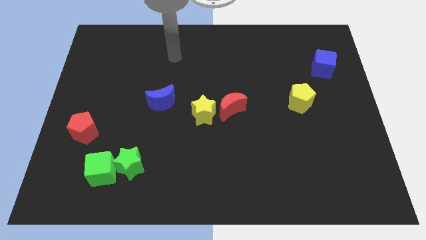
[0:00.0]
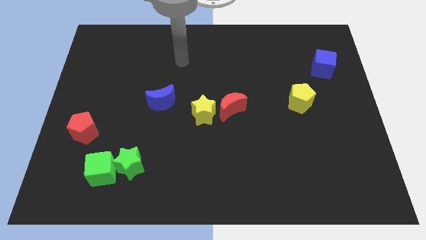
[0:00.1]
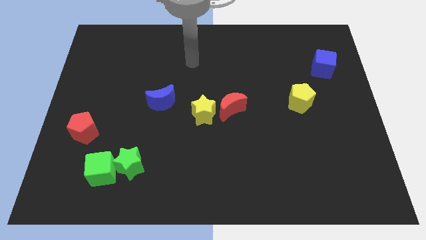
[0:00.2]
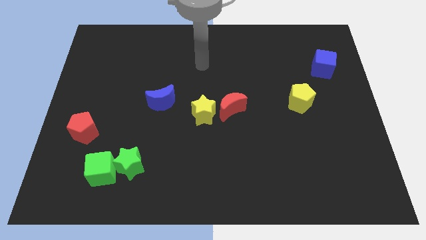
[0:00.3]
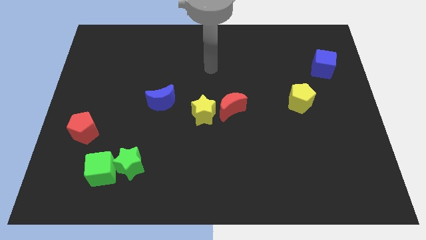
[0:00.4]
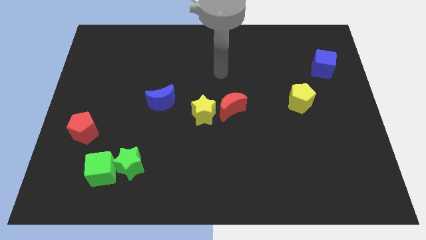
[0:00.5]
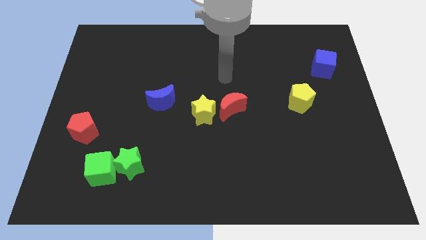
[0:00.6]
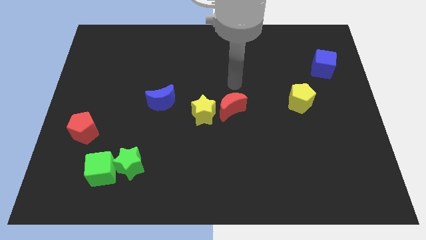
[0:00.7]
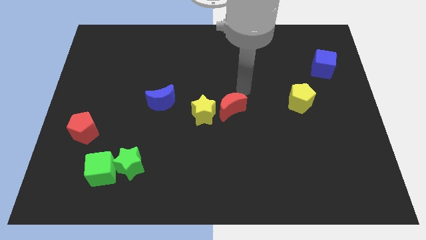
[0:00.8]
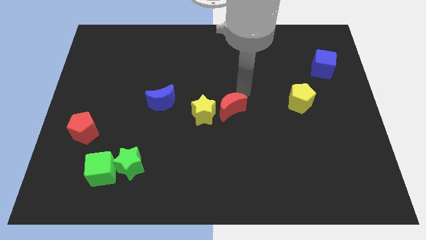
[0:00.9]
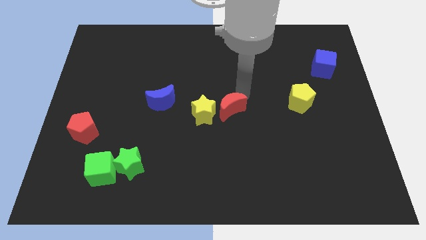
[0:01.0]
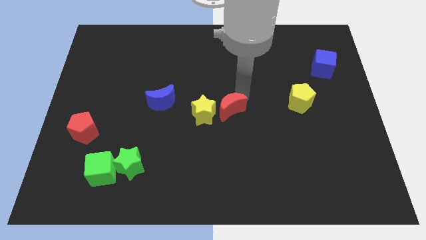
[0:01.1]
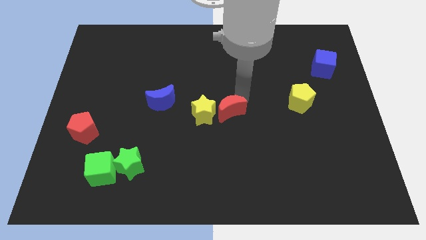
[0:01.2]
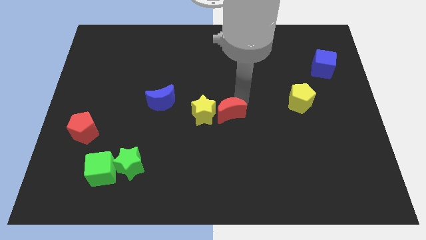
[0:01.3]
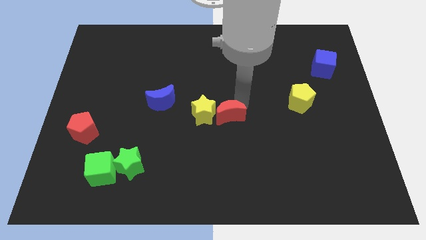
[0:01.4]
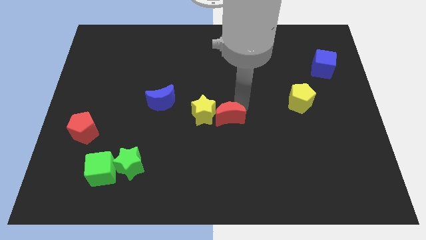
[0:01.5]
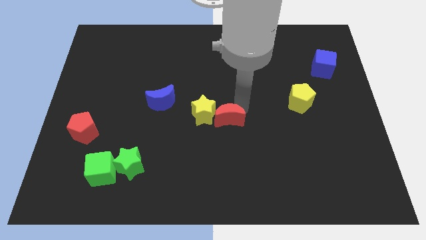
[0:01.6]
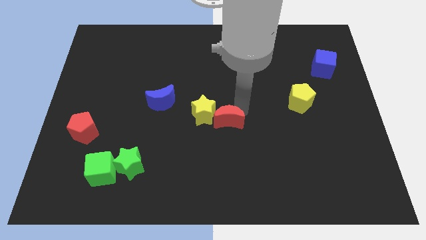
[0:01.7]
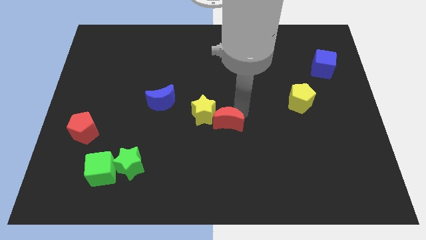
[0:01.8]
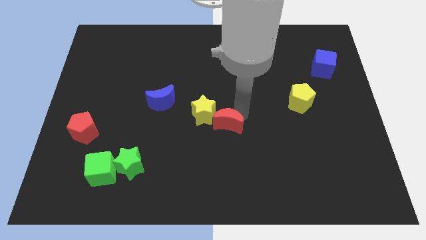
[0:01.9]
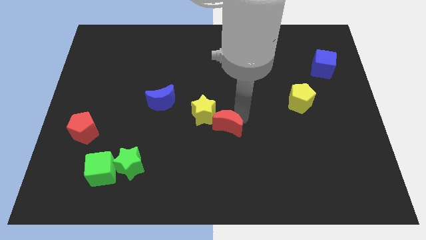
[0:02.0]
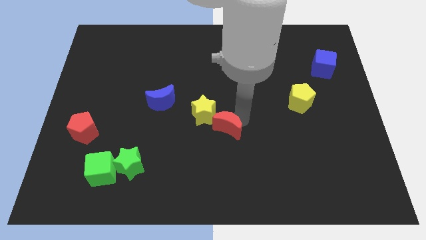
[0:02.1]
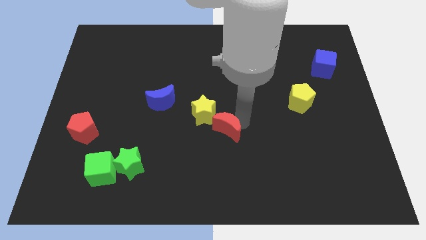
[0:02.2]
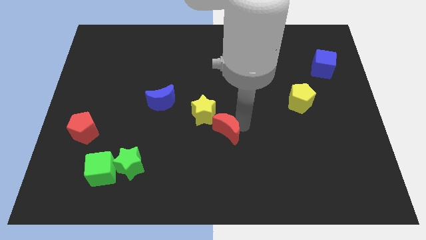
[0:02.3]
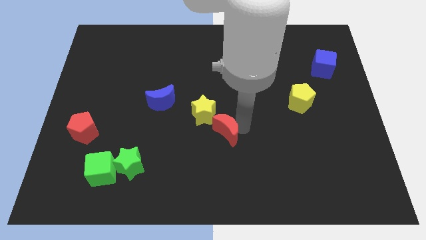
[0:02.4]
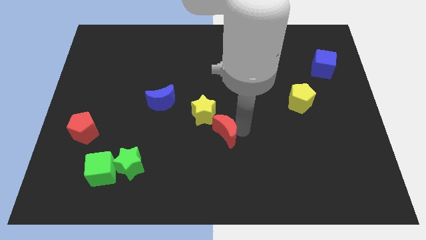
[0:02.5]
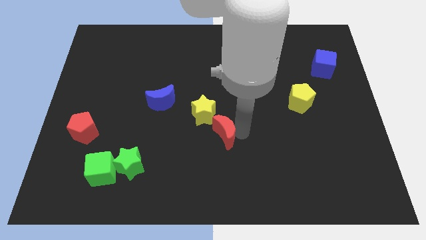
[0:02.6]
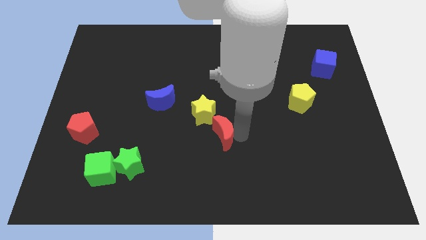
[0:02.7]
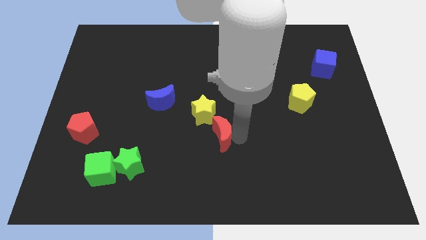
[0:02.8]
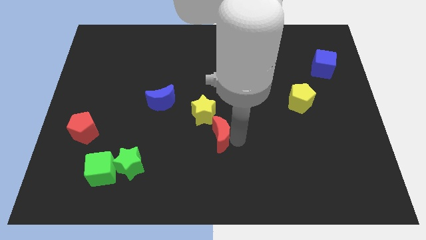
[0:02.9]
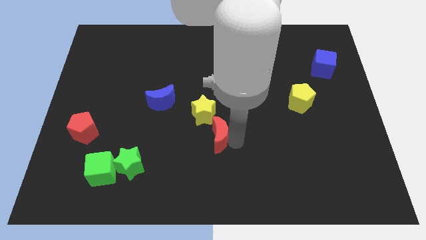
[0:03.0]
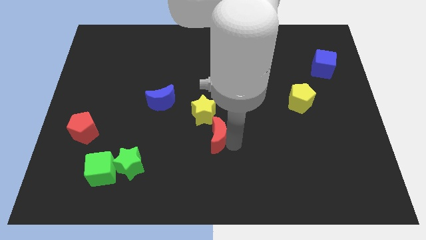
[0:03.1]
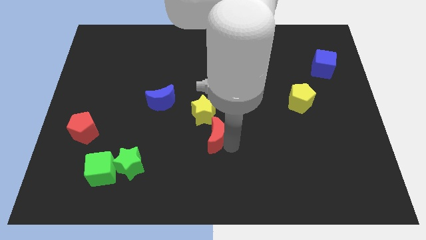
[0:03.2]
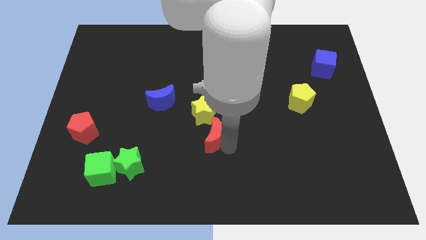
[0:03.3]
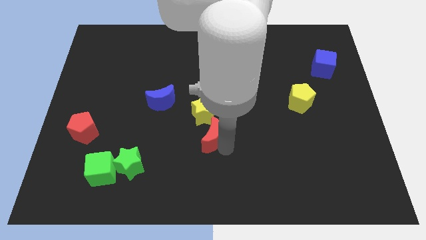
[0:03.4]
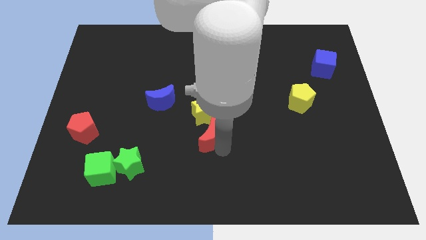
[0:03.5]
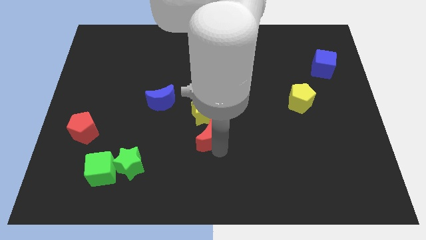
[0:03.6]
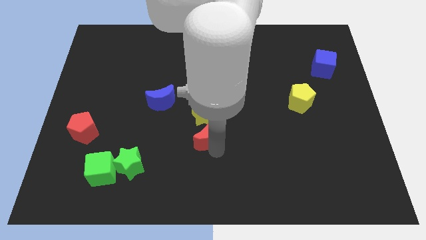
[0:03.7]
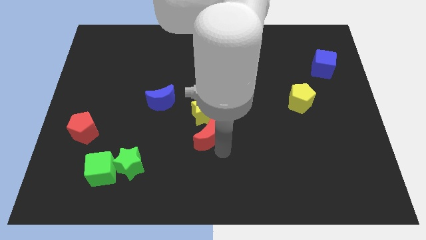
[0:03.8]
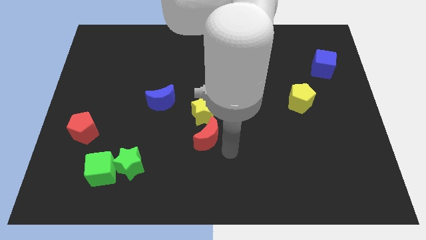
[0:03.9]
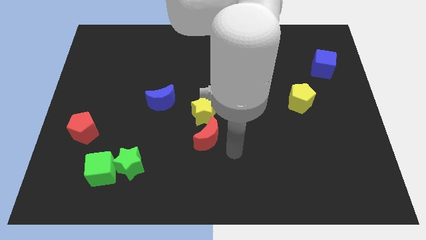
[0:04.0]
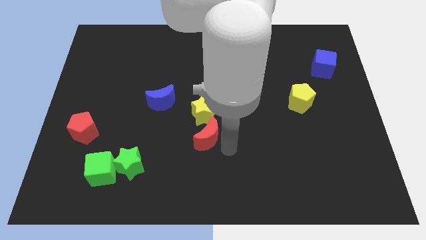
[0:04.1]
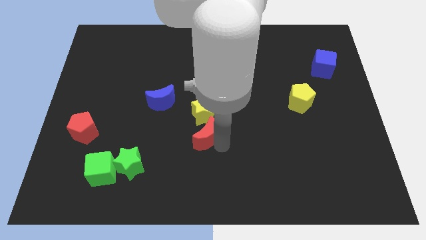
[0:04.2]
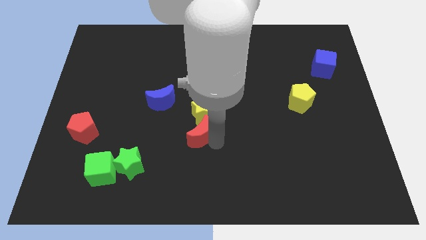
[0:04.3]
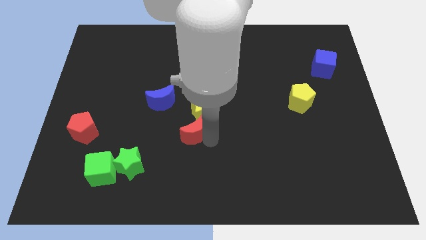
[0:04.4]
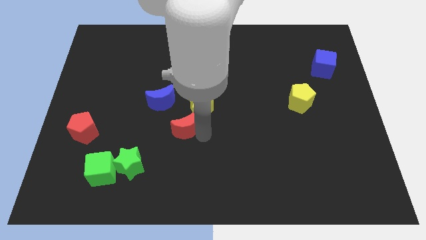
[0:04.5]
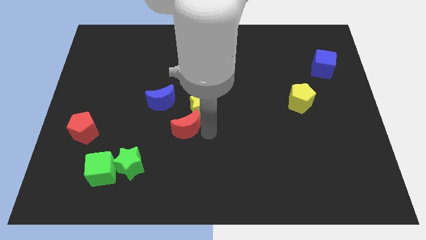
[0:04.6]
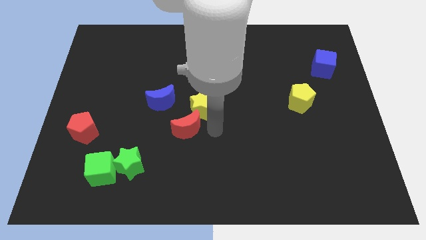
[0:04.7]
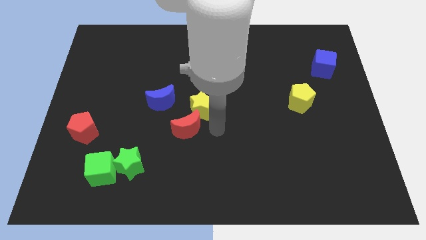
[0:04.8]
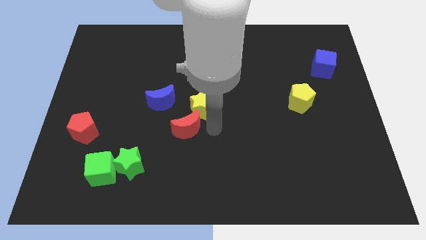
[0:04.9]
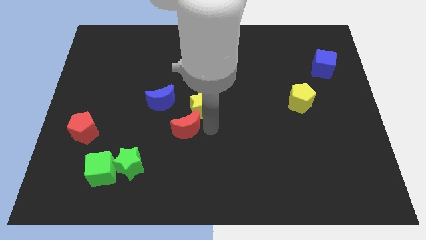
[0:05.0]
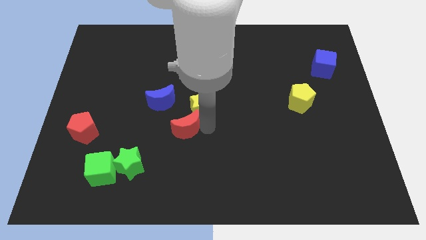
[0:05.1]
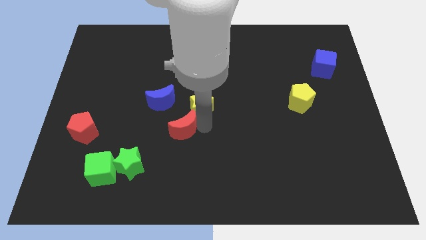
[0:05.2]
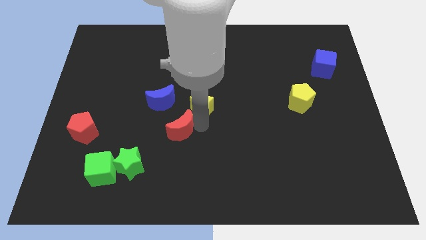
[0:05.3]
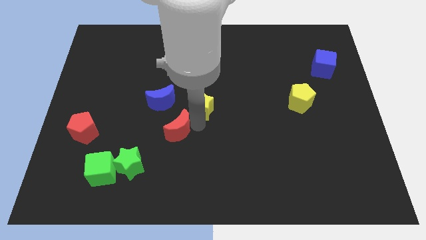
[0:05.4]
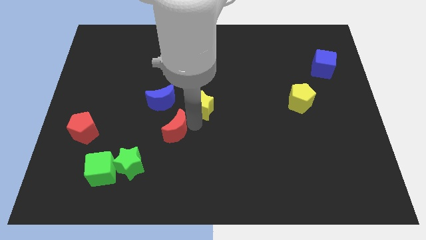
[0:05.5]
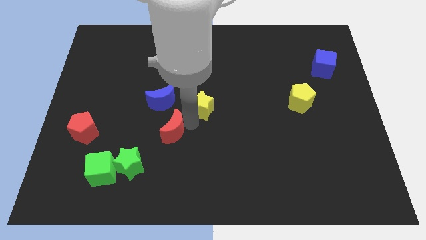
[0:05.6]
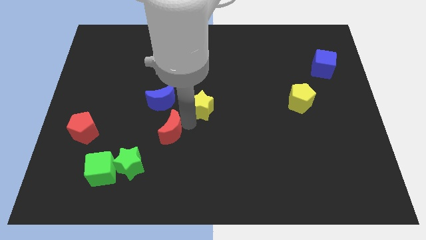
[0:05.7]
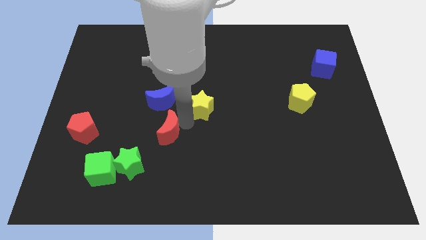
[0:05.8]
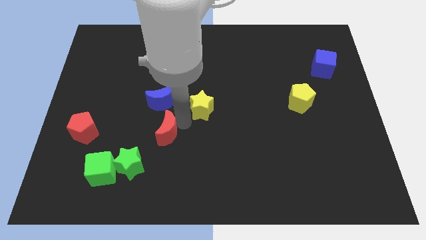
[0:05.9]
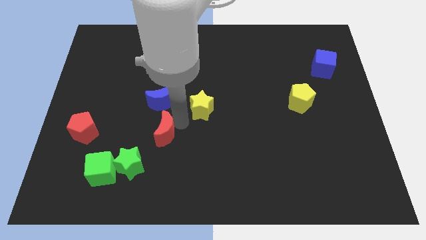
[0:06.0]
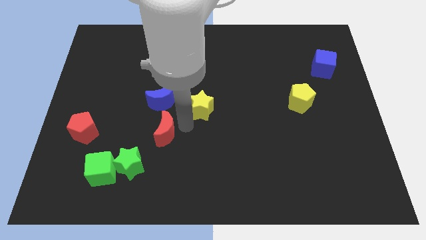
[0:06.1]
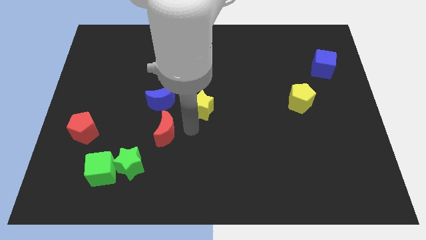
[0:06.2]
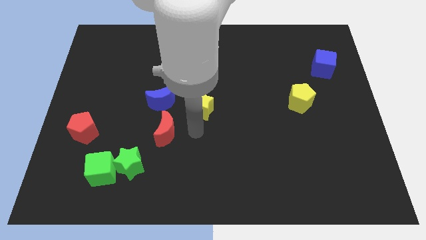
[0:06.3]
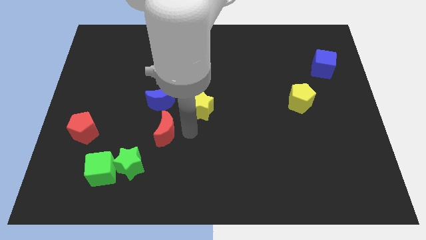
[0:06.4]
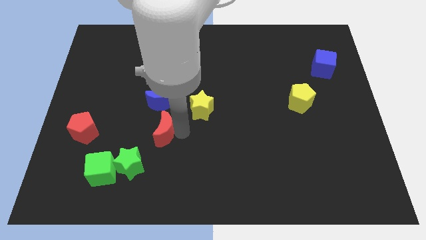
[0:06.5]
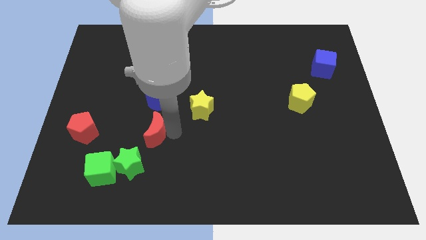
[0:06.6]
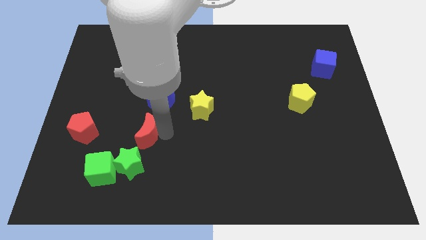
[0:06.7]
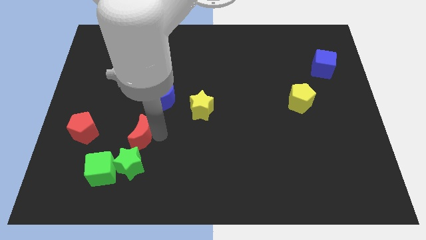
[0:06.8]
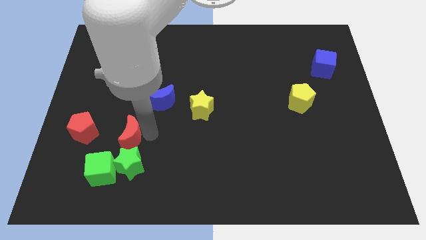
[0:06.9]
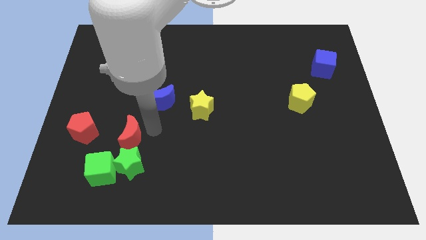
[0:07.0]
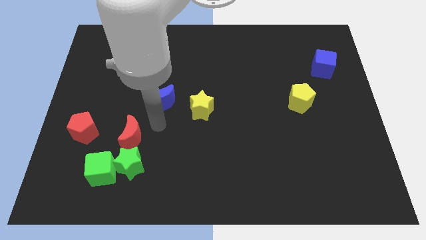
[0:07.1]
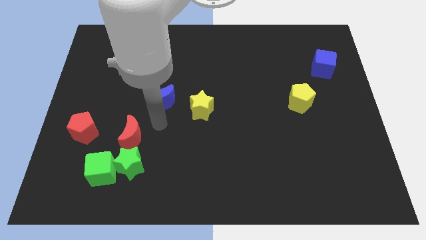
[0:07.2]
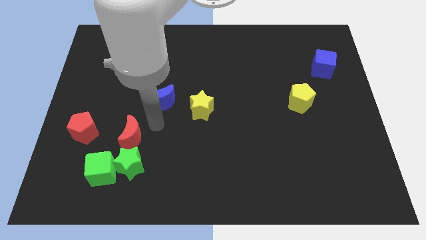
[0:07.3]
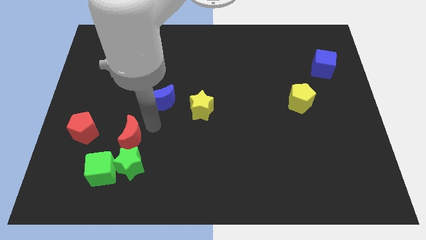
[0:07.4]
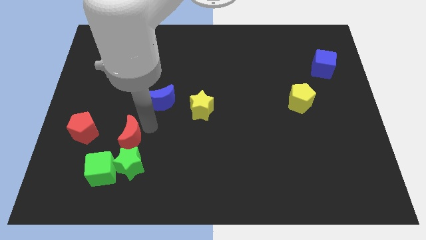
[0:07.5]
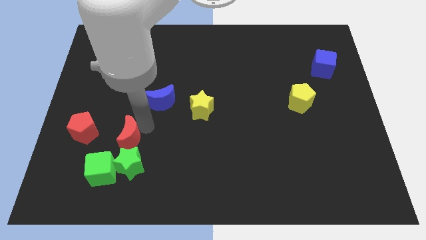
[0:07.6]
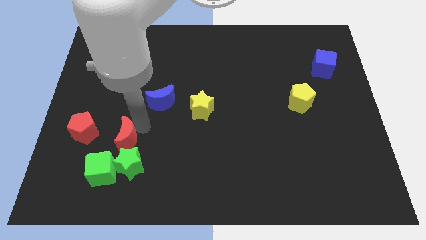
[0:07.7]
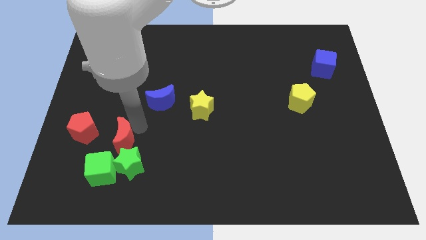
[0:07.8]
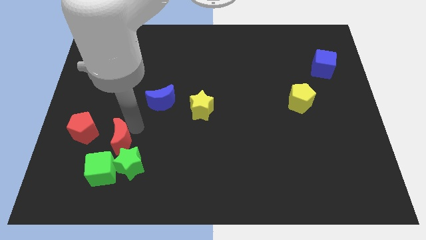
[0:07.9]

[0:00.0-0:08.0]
push the red moon diagonally down and to the right of the red pentagon
